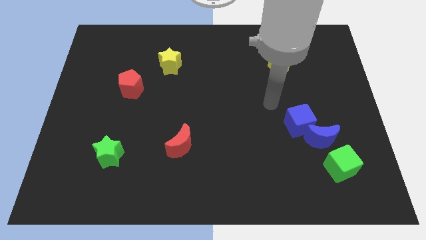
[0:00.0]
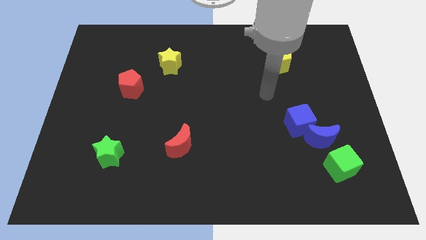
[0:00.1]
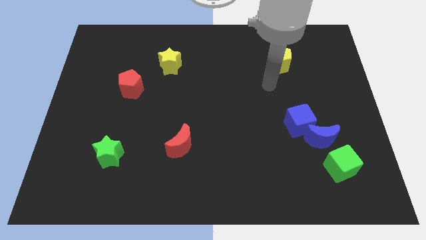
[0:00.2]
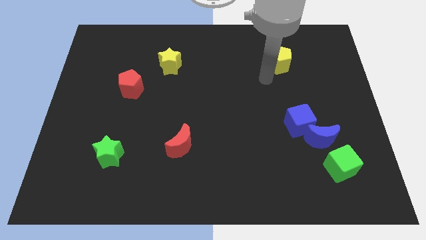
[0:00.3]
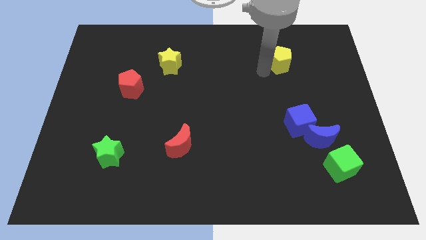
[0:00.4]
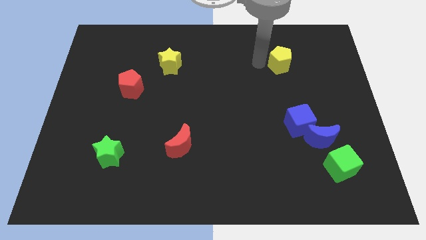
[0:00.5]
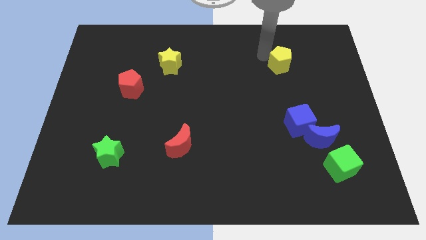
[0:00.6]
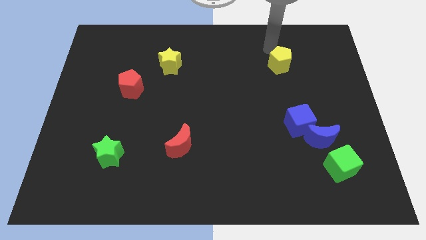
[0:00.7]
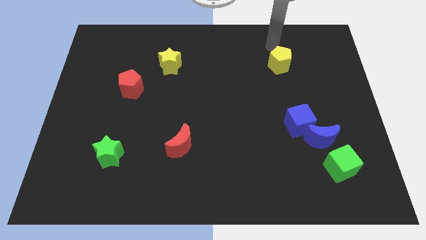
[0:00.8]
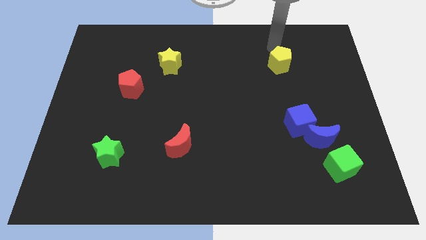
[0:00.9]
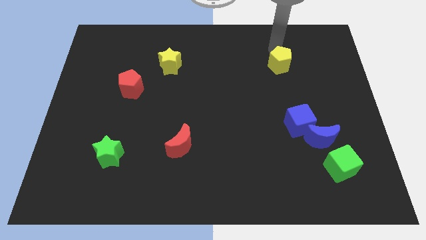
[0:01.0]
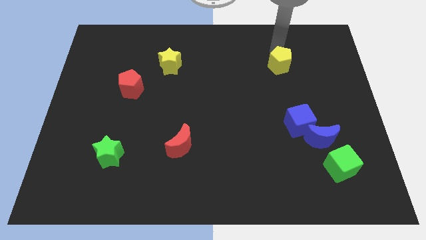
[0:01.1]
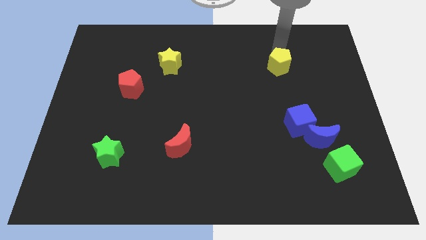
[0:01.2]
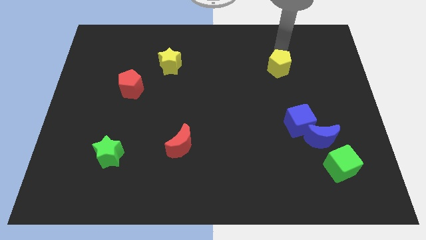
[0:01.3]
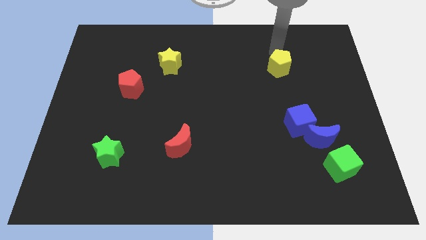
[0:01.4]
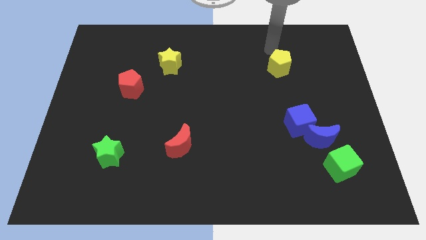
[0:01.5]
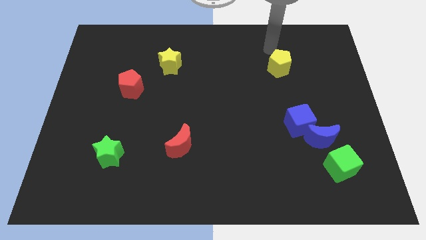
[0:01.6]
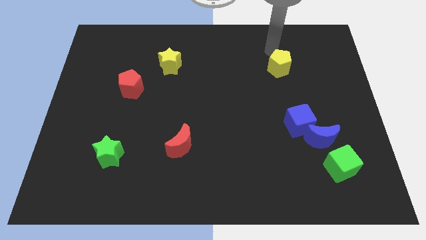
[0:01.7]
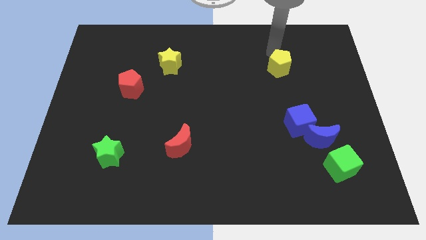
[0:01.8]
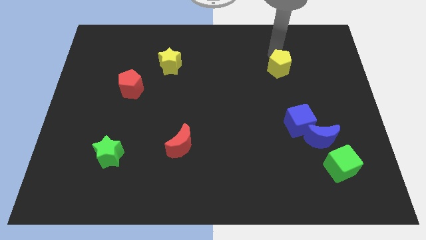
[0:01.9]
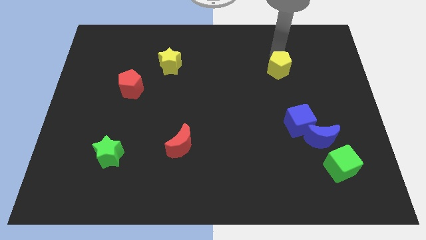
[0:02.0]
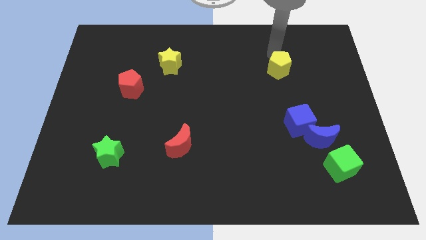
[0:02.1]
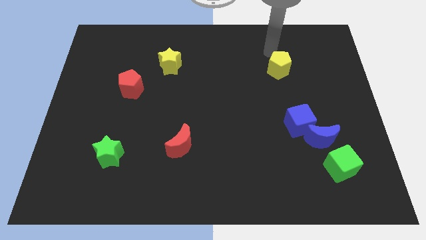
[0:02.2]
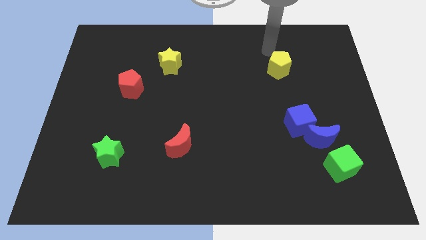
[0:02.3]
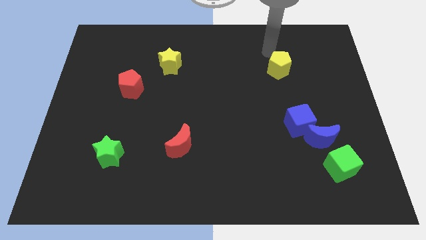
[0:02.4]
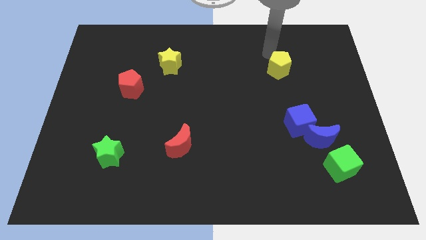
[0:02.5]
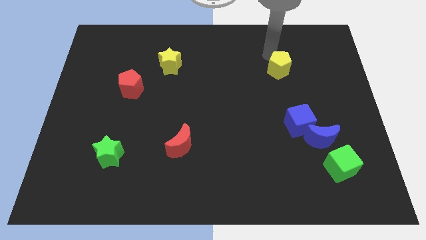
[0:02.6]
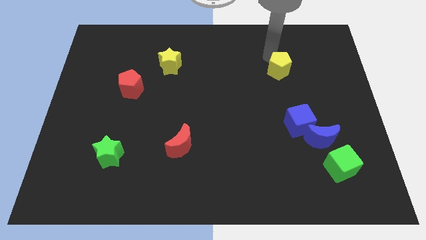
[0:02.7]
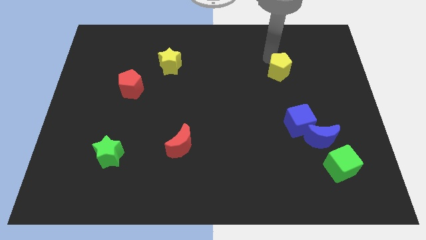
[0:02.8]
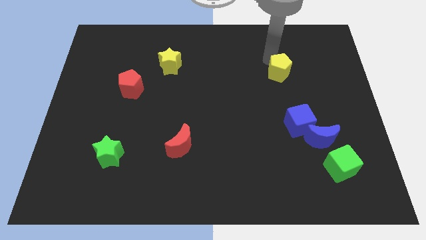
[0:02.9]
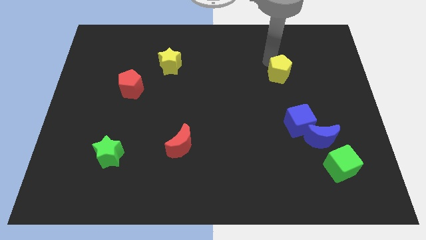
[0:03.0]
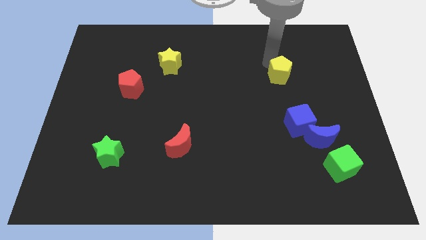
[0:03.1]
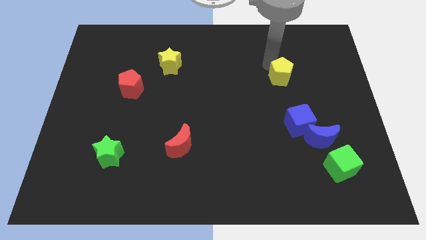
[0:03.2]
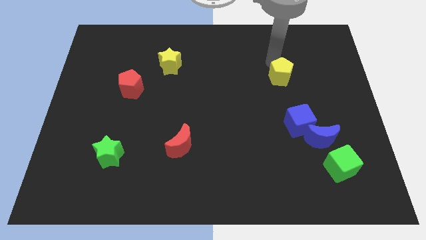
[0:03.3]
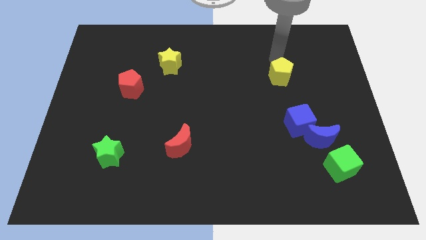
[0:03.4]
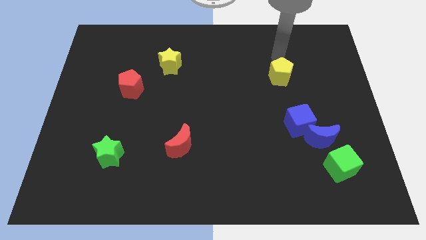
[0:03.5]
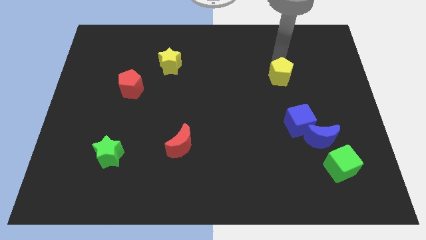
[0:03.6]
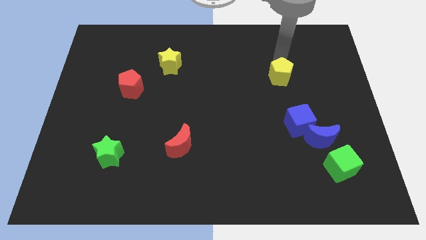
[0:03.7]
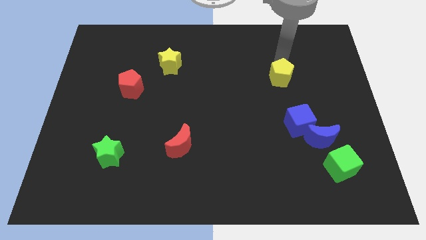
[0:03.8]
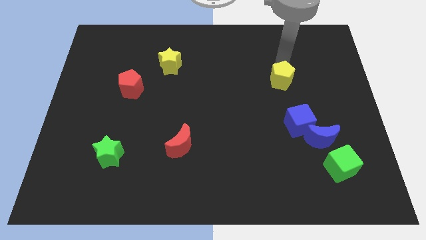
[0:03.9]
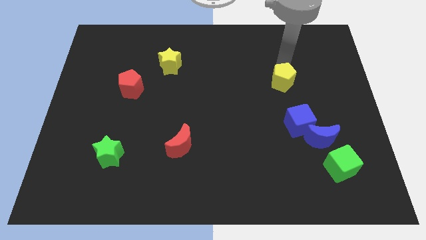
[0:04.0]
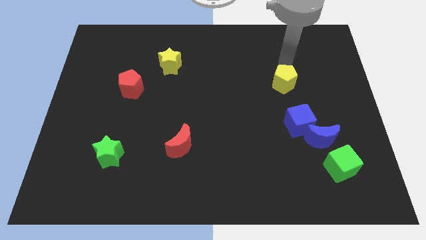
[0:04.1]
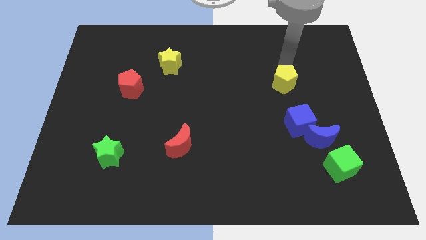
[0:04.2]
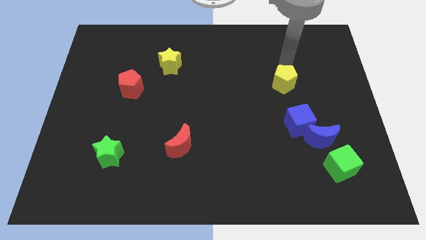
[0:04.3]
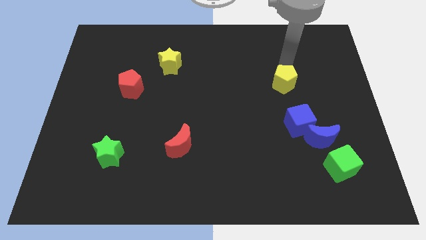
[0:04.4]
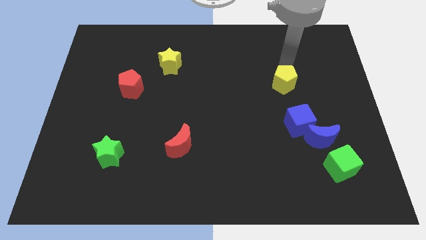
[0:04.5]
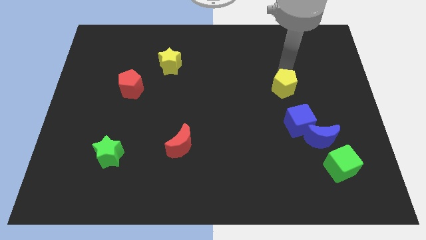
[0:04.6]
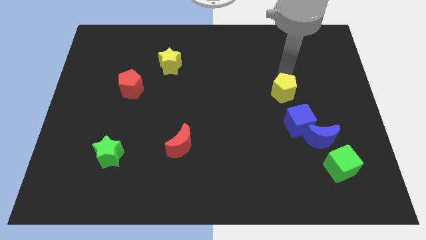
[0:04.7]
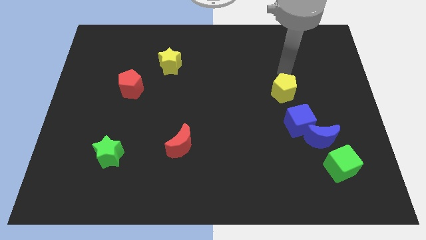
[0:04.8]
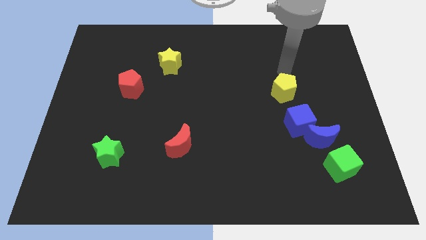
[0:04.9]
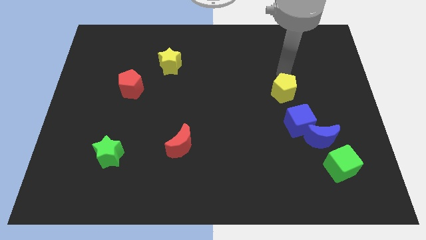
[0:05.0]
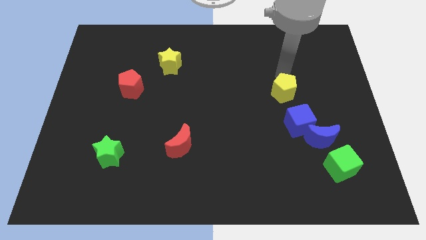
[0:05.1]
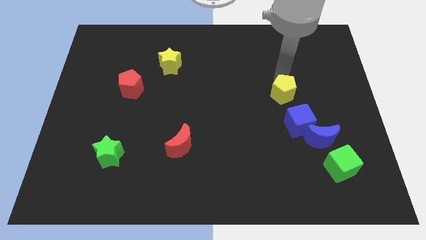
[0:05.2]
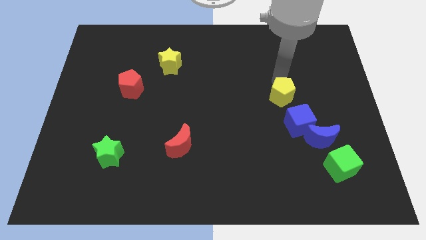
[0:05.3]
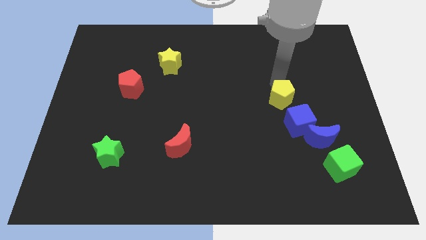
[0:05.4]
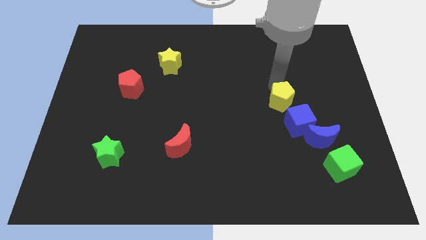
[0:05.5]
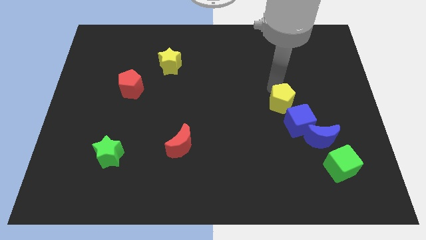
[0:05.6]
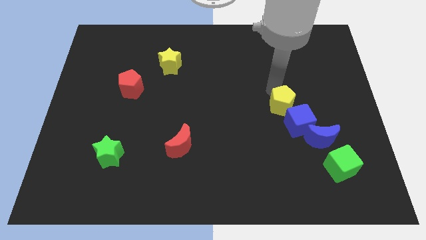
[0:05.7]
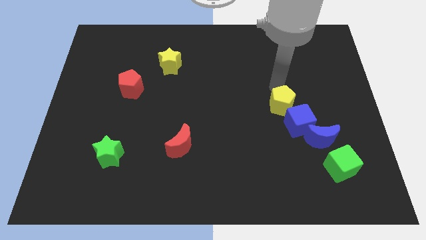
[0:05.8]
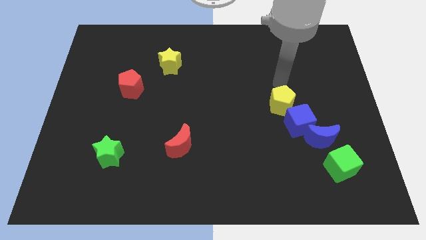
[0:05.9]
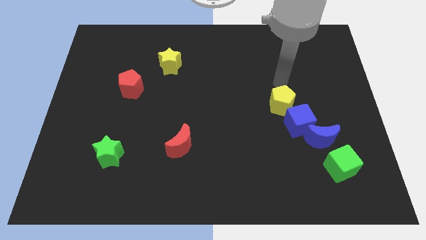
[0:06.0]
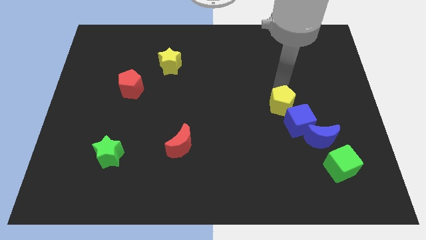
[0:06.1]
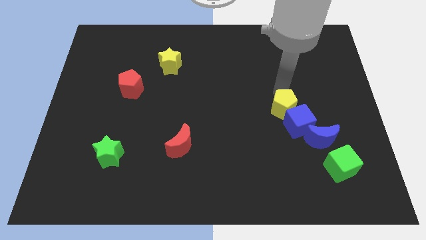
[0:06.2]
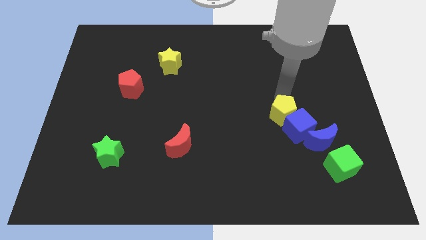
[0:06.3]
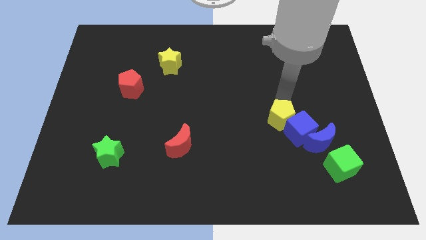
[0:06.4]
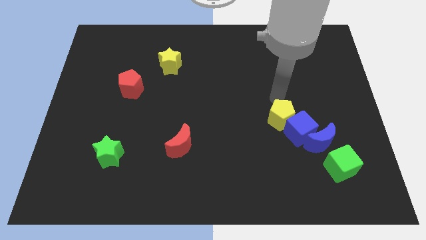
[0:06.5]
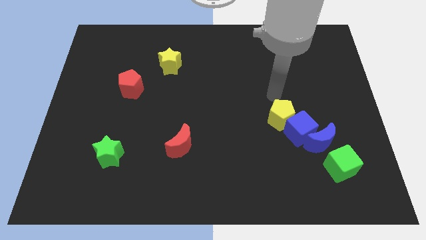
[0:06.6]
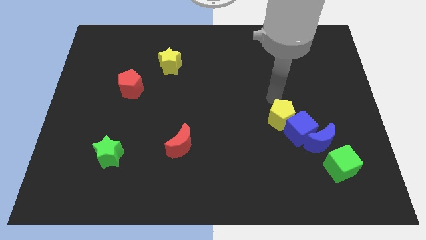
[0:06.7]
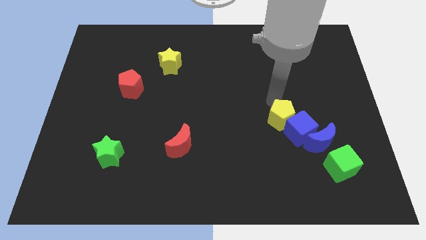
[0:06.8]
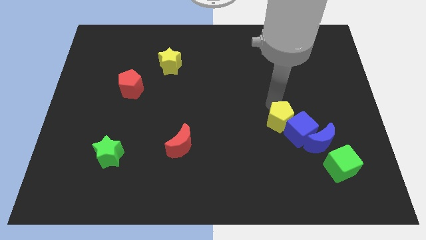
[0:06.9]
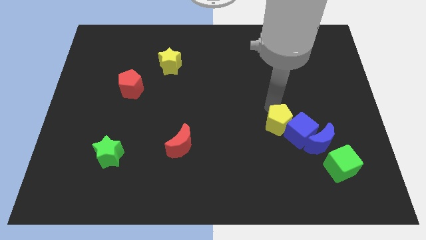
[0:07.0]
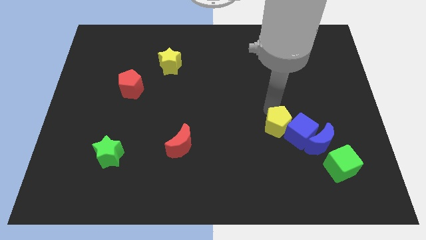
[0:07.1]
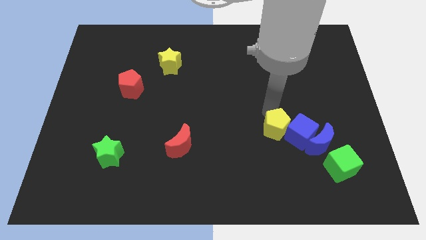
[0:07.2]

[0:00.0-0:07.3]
slide the yellow pentagon down

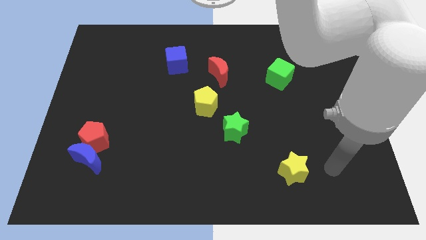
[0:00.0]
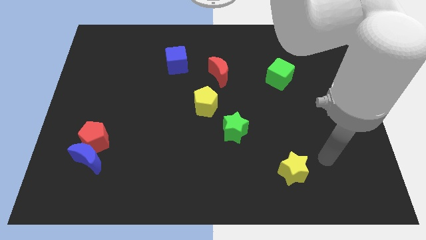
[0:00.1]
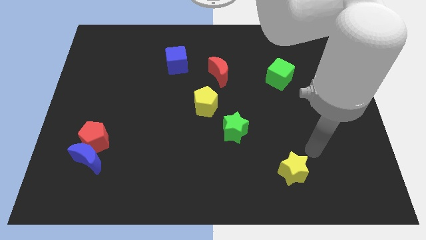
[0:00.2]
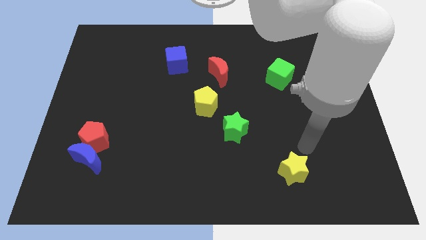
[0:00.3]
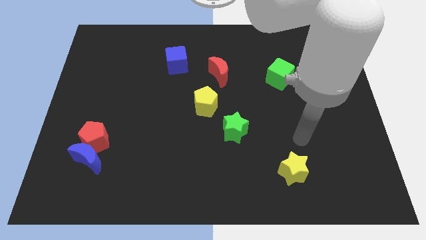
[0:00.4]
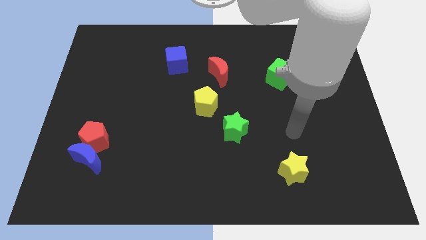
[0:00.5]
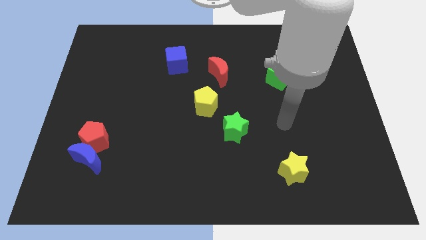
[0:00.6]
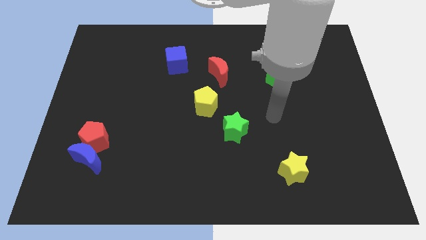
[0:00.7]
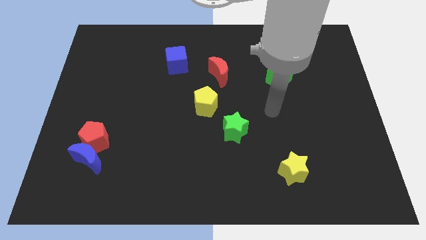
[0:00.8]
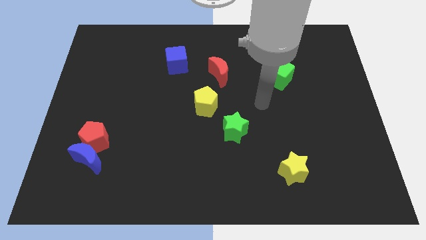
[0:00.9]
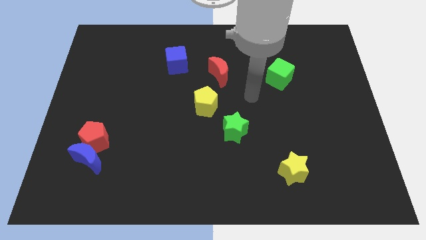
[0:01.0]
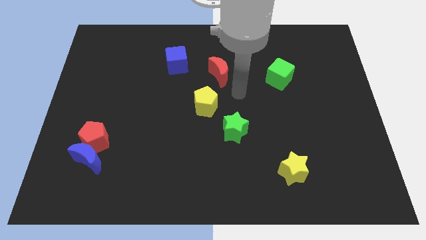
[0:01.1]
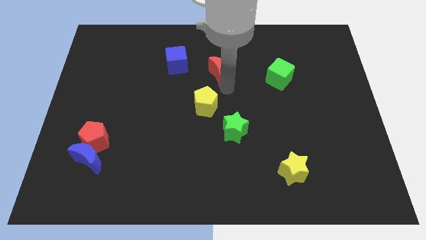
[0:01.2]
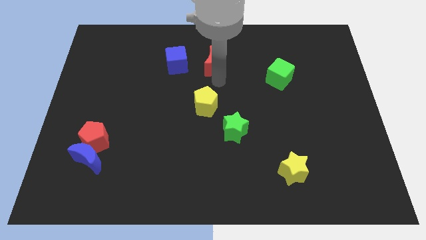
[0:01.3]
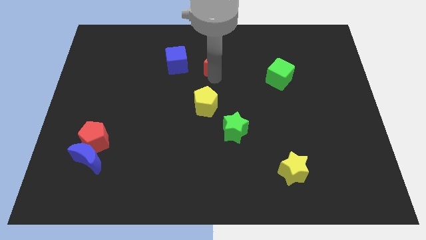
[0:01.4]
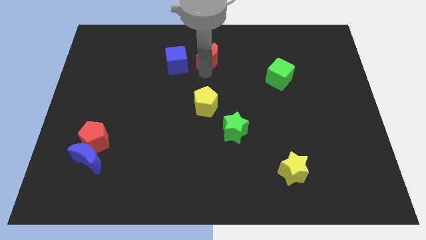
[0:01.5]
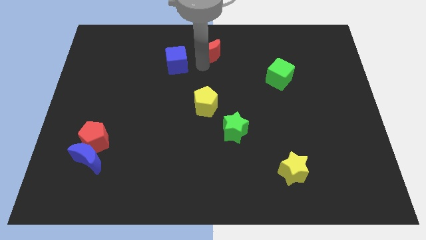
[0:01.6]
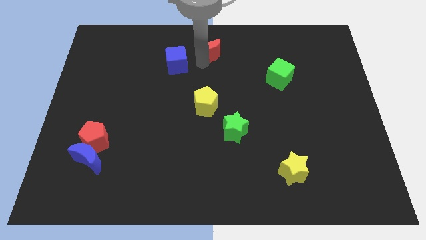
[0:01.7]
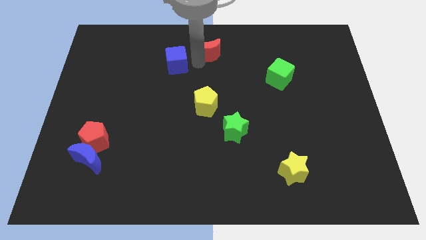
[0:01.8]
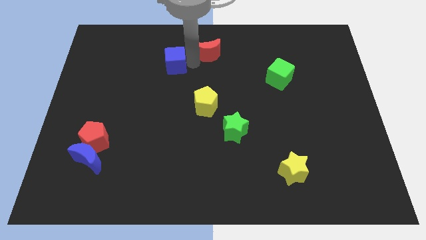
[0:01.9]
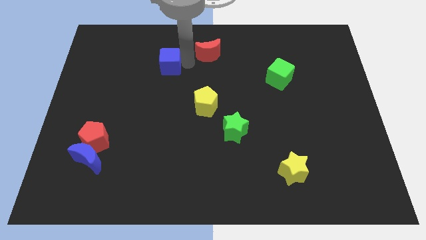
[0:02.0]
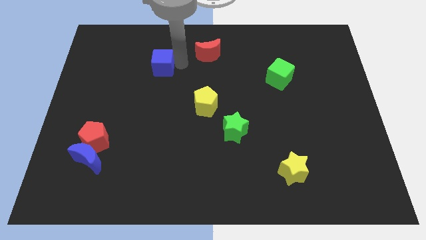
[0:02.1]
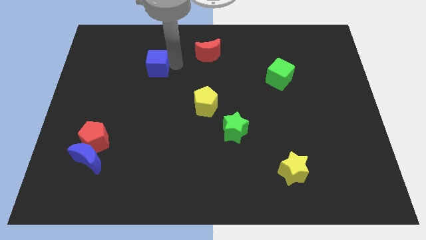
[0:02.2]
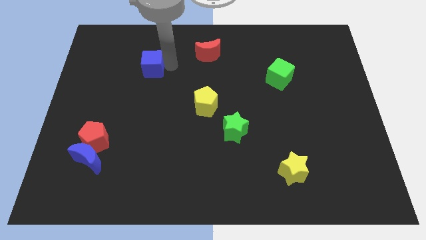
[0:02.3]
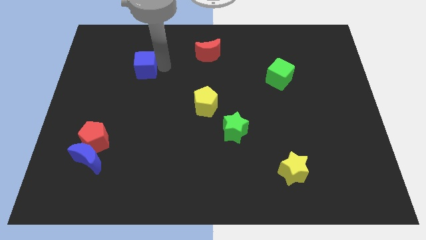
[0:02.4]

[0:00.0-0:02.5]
move the blue cube slightly left
